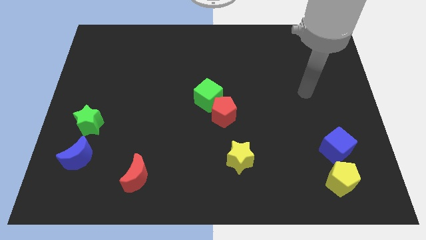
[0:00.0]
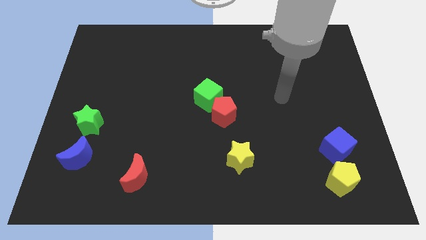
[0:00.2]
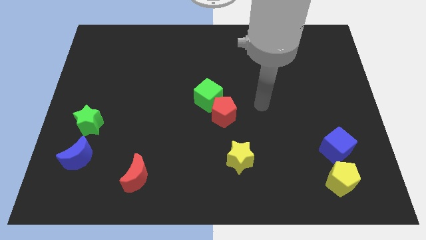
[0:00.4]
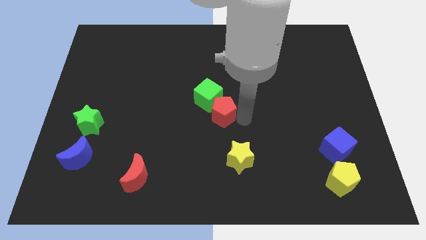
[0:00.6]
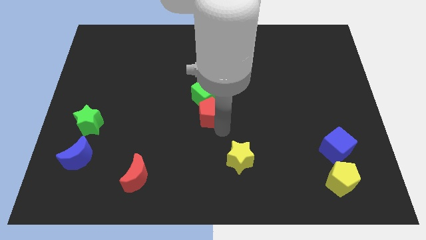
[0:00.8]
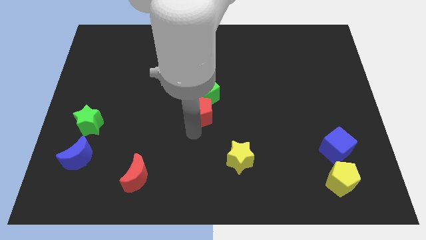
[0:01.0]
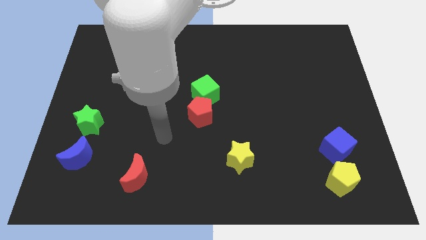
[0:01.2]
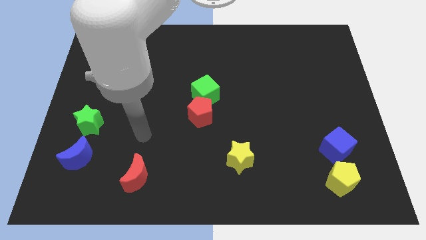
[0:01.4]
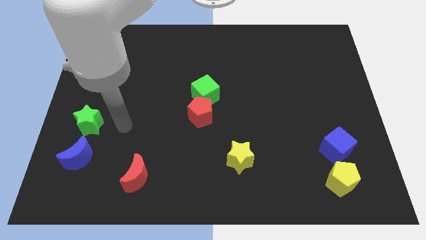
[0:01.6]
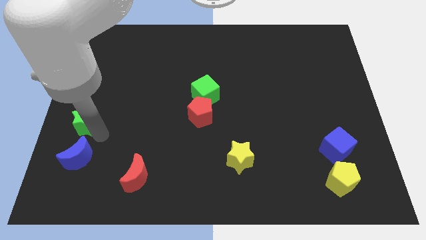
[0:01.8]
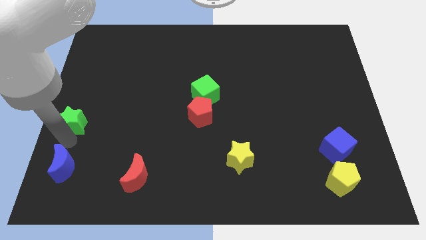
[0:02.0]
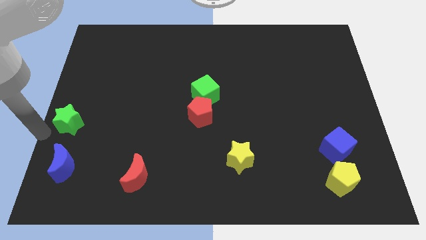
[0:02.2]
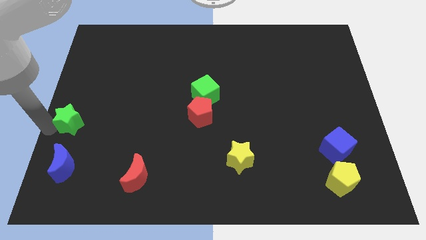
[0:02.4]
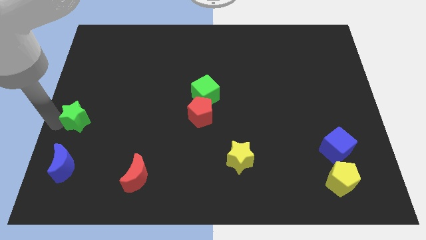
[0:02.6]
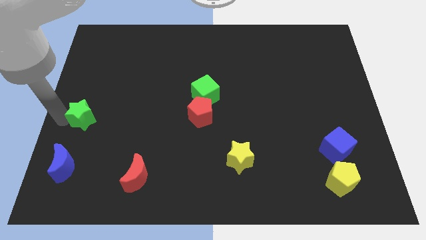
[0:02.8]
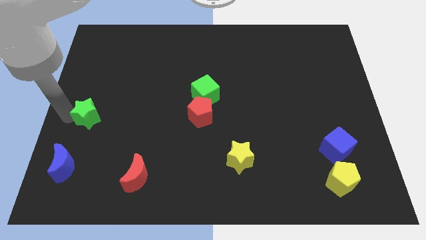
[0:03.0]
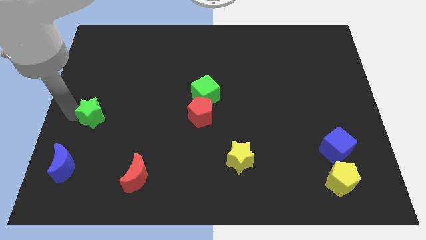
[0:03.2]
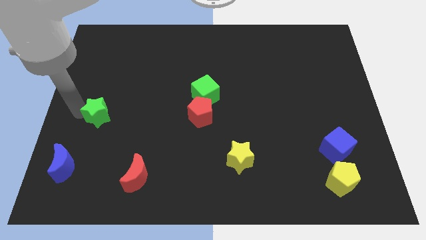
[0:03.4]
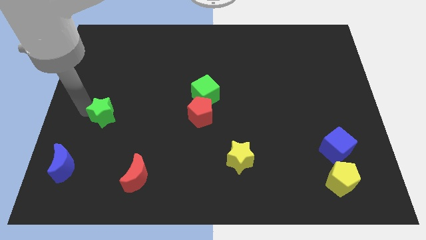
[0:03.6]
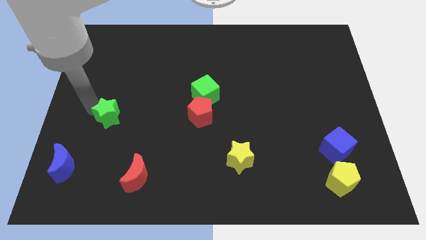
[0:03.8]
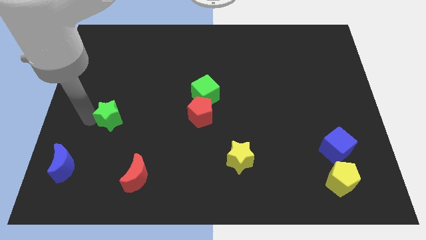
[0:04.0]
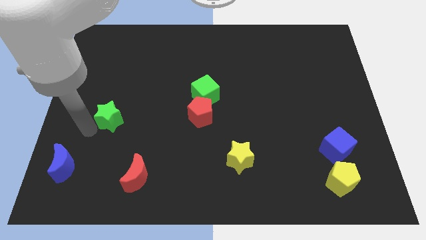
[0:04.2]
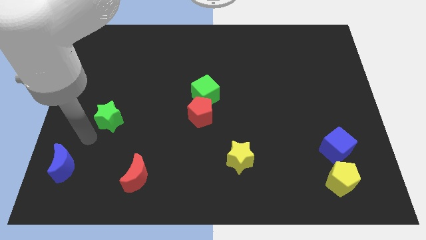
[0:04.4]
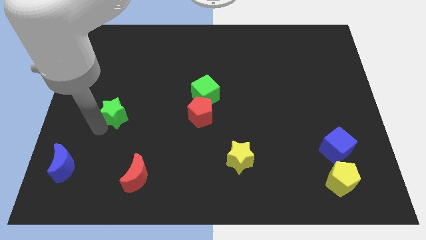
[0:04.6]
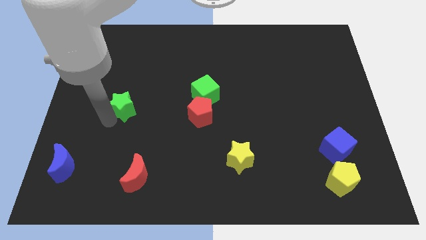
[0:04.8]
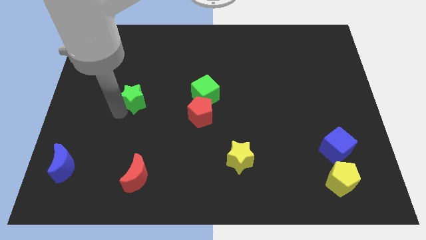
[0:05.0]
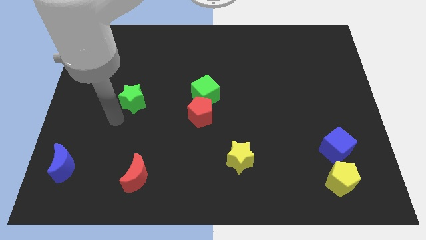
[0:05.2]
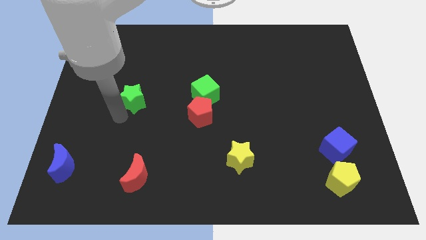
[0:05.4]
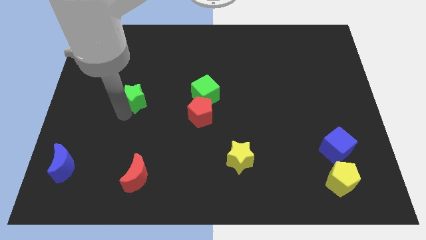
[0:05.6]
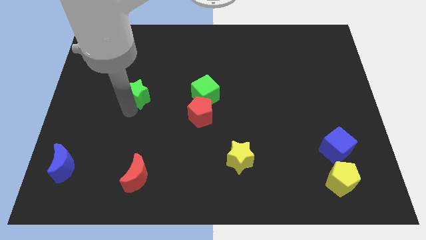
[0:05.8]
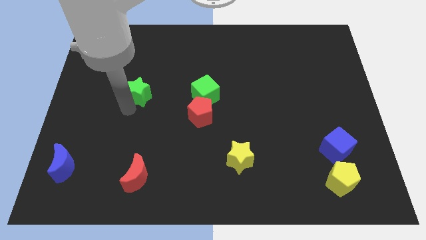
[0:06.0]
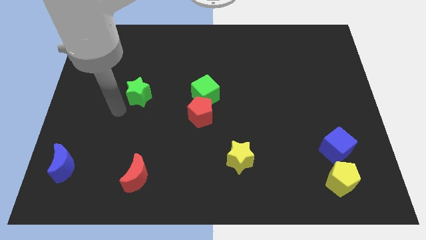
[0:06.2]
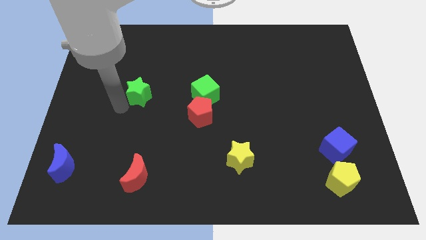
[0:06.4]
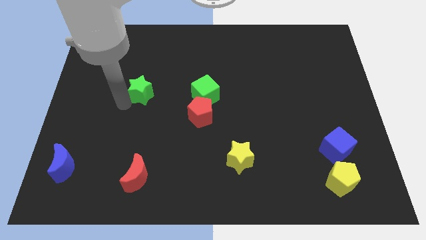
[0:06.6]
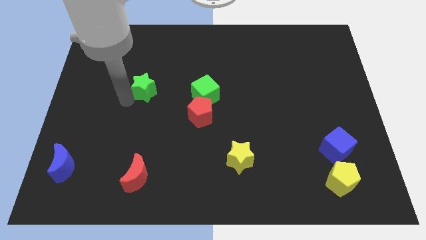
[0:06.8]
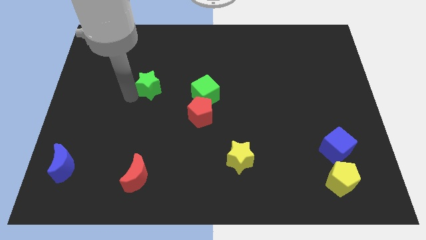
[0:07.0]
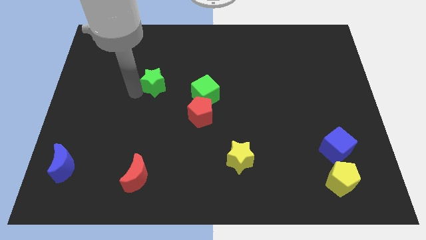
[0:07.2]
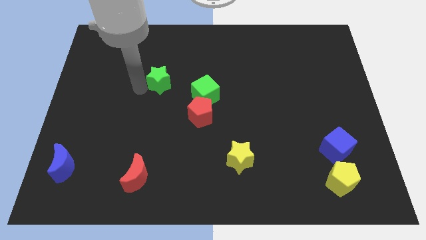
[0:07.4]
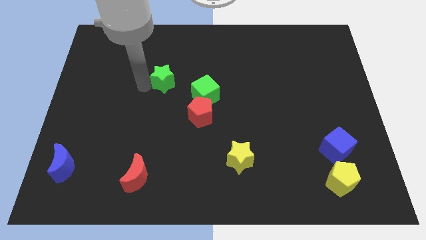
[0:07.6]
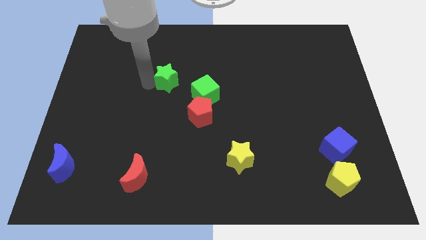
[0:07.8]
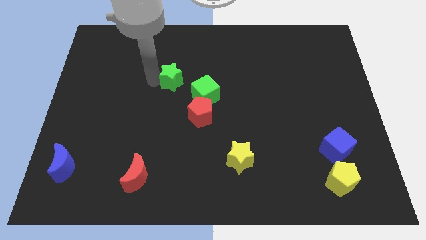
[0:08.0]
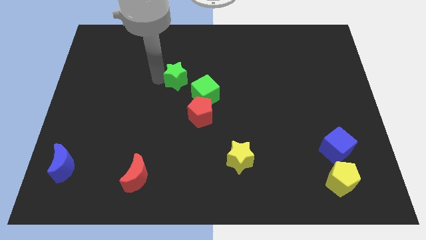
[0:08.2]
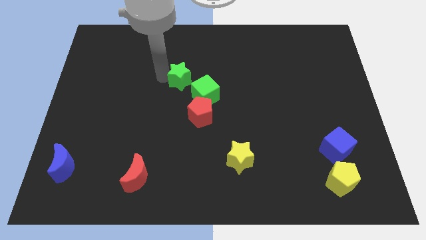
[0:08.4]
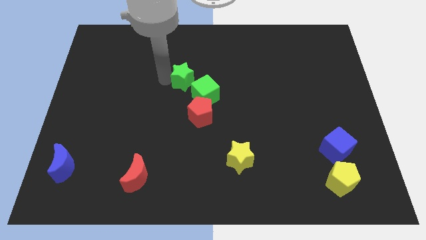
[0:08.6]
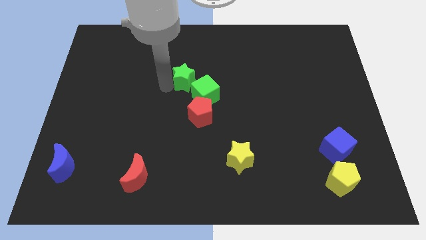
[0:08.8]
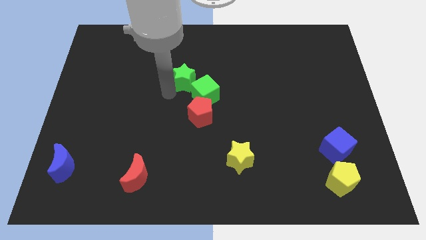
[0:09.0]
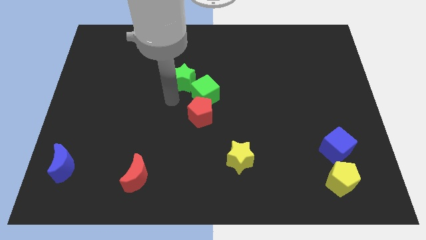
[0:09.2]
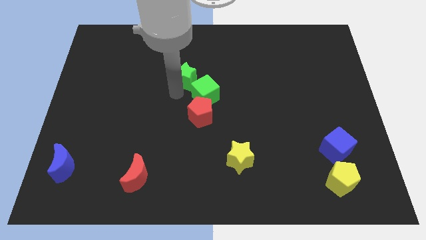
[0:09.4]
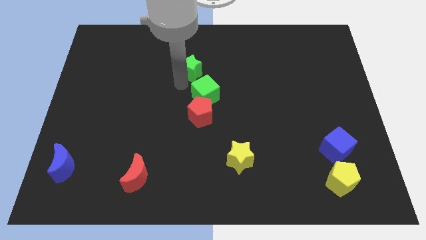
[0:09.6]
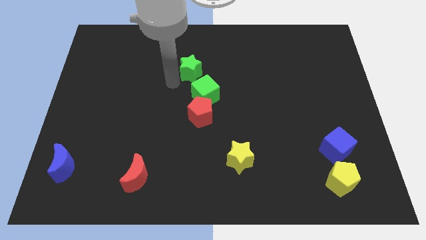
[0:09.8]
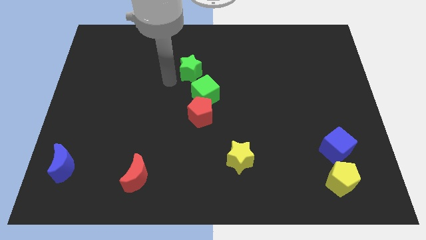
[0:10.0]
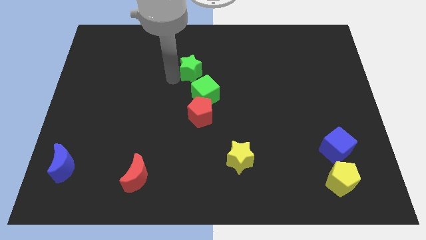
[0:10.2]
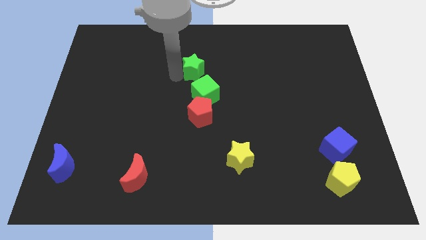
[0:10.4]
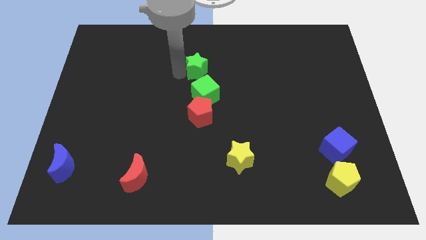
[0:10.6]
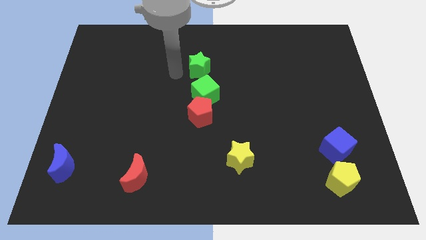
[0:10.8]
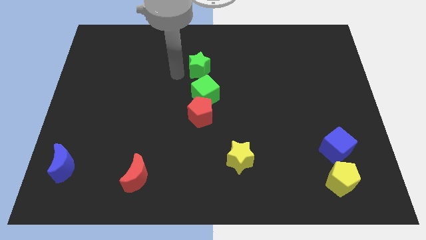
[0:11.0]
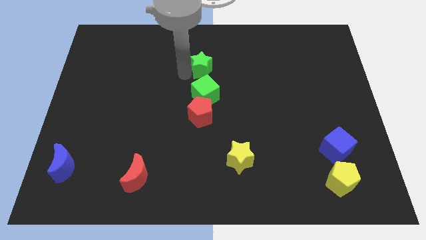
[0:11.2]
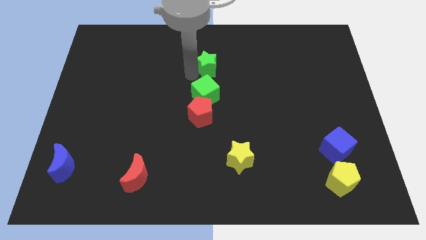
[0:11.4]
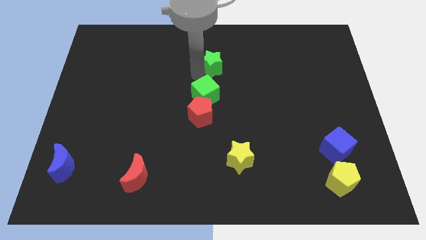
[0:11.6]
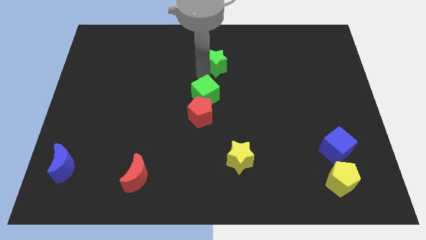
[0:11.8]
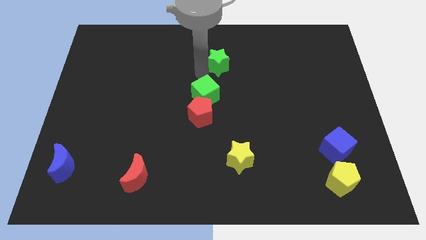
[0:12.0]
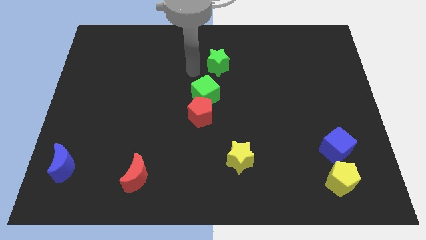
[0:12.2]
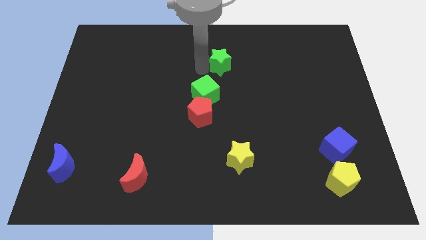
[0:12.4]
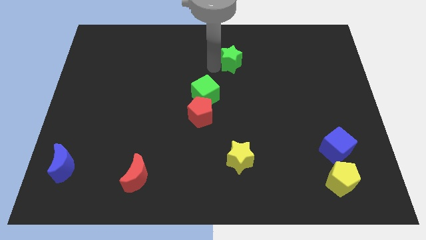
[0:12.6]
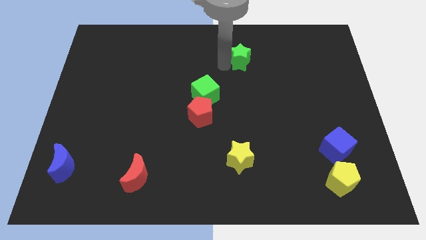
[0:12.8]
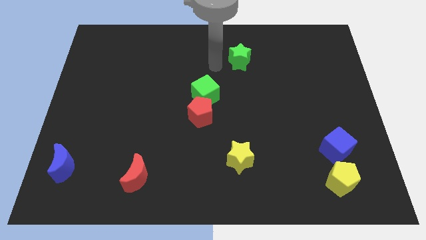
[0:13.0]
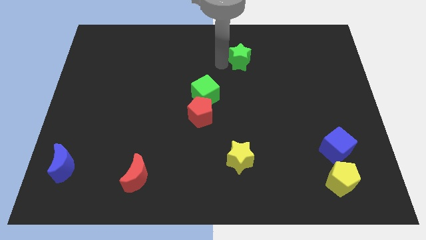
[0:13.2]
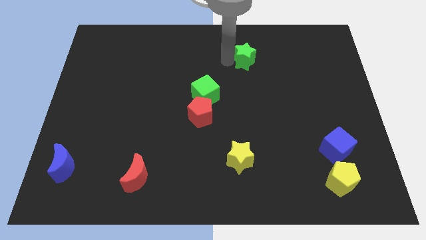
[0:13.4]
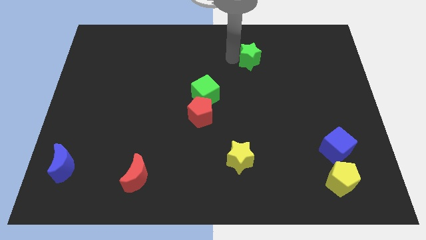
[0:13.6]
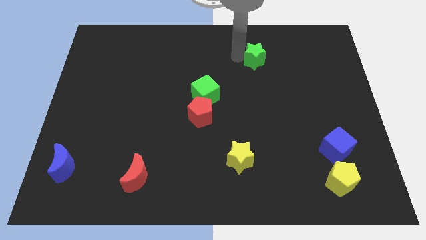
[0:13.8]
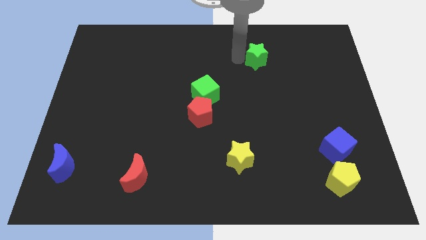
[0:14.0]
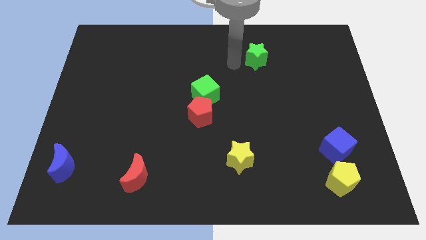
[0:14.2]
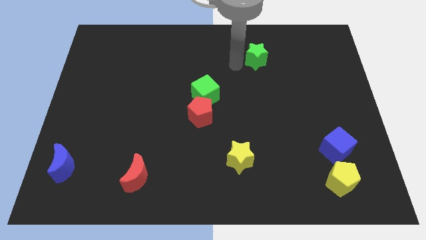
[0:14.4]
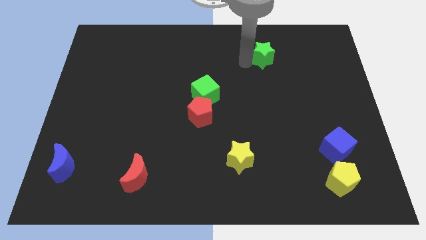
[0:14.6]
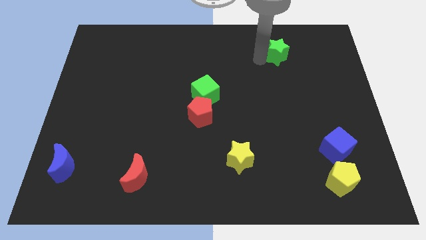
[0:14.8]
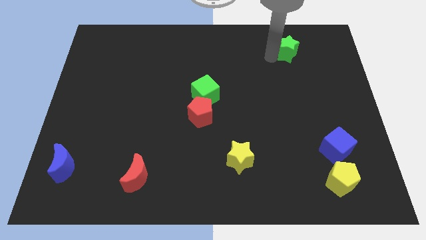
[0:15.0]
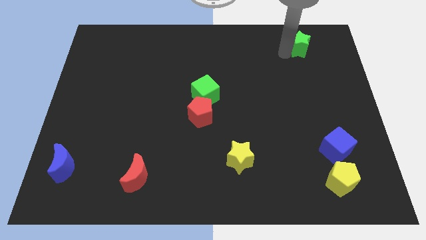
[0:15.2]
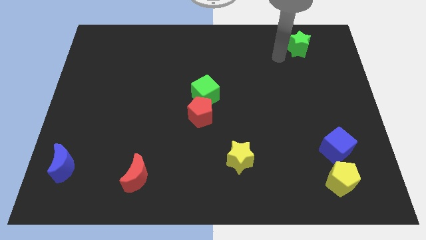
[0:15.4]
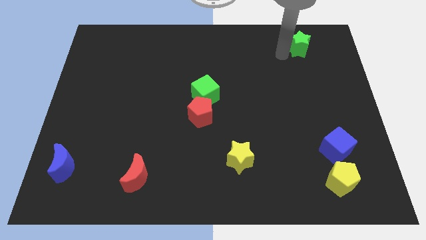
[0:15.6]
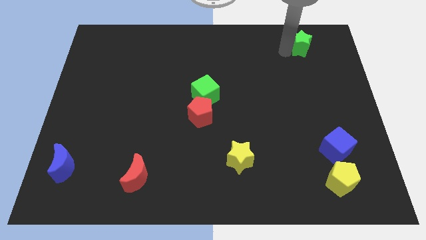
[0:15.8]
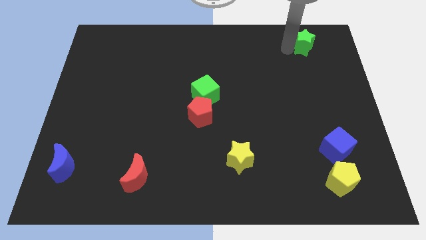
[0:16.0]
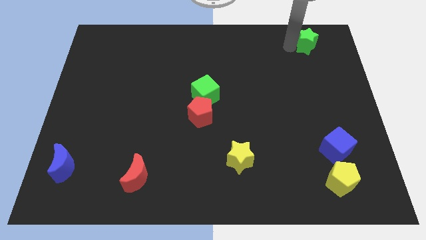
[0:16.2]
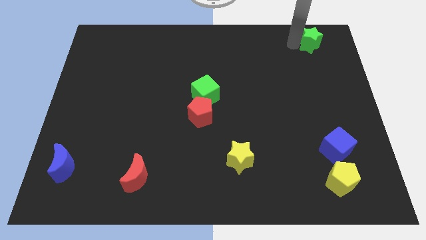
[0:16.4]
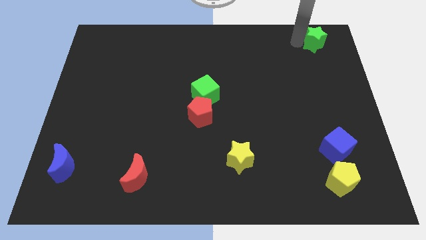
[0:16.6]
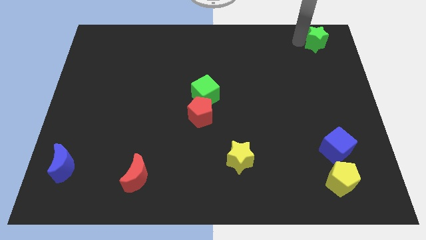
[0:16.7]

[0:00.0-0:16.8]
push the green star to the top right
